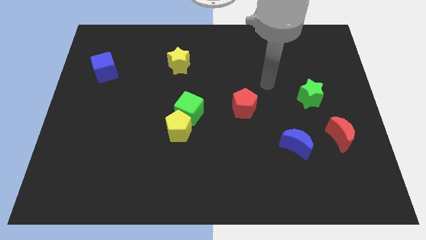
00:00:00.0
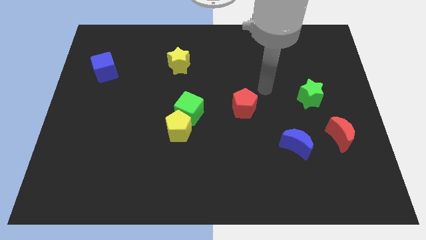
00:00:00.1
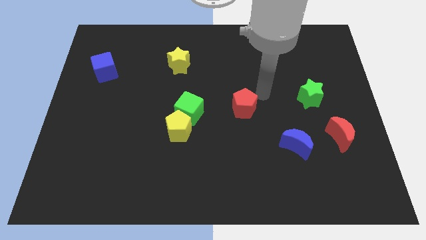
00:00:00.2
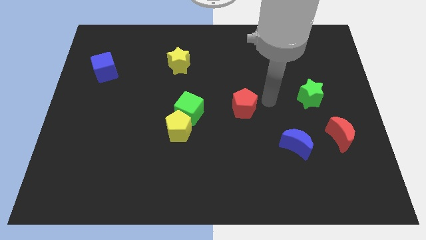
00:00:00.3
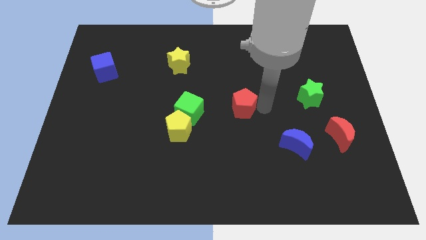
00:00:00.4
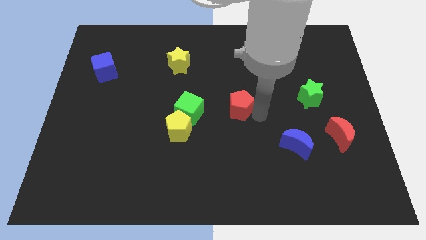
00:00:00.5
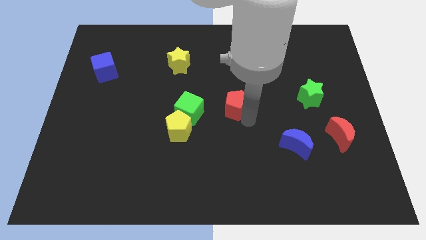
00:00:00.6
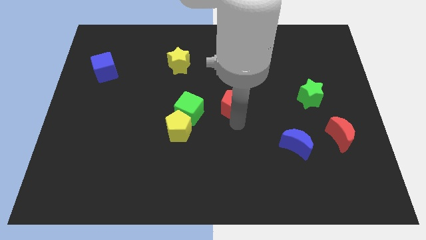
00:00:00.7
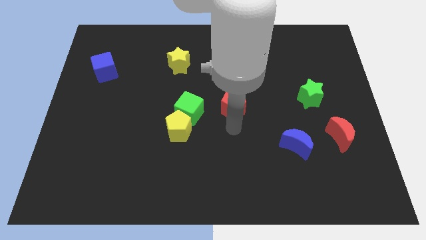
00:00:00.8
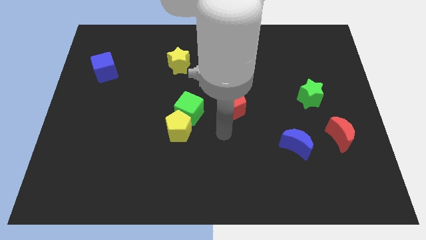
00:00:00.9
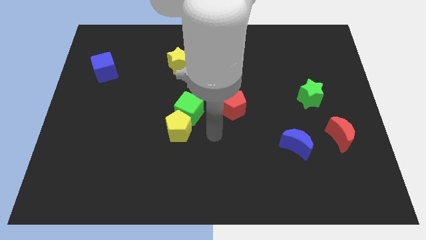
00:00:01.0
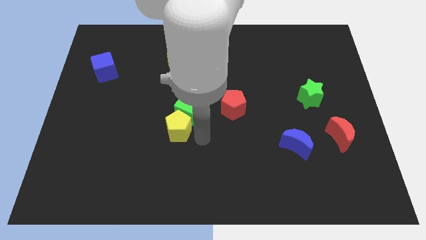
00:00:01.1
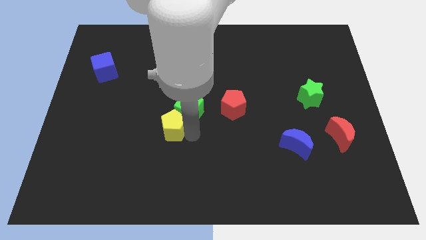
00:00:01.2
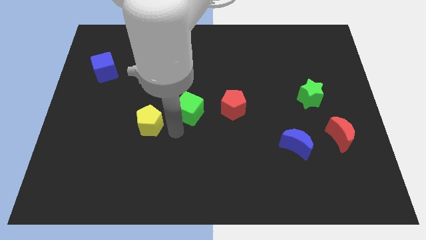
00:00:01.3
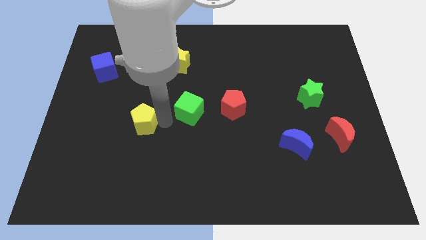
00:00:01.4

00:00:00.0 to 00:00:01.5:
move the green cube away from the yellow pentagon

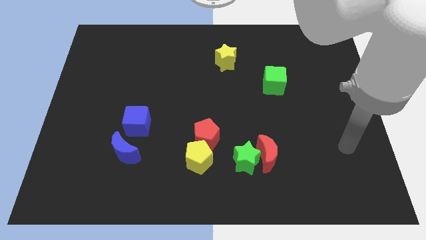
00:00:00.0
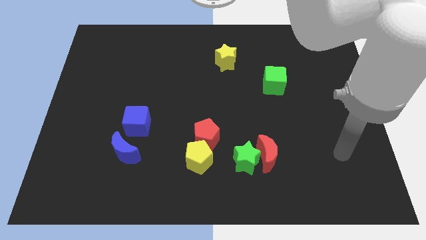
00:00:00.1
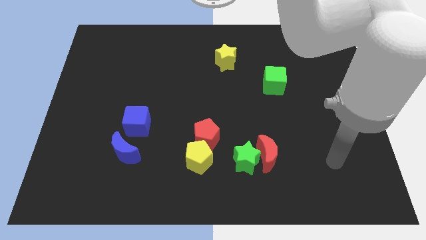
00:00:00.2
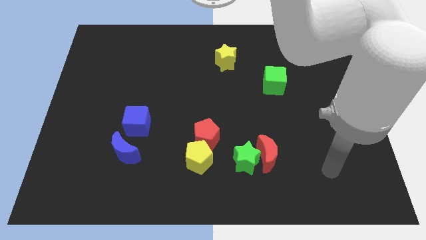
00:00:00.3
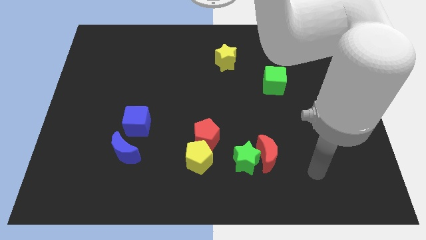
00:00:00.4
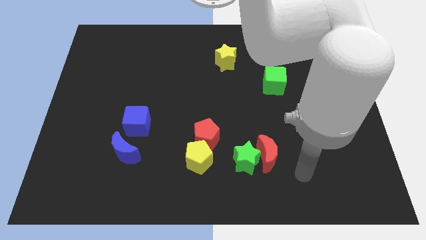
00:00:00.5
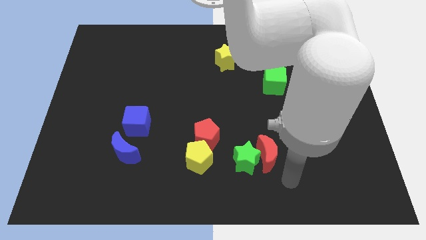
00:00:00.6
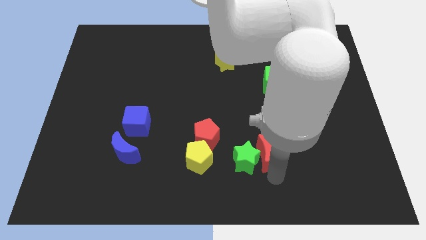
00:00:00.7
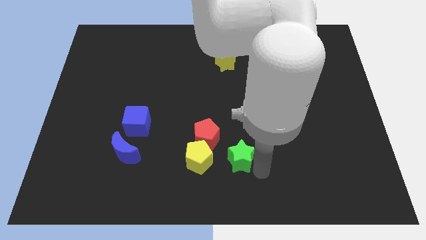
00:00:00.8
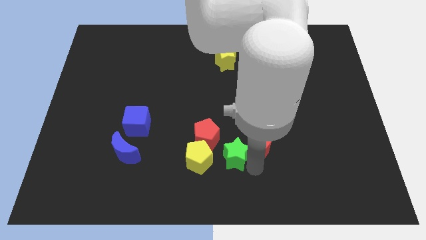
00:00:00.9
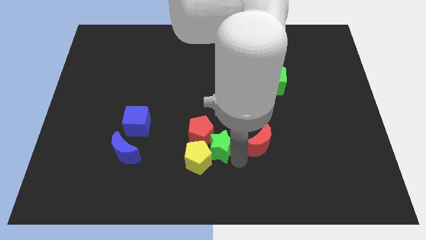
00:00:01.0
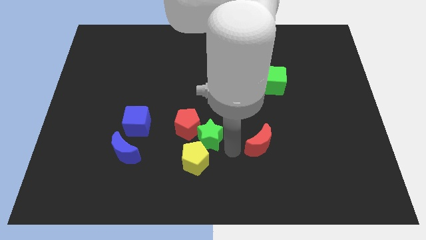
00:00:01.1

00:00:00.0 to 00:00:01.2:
move the red moon away from the green star

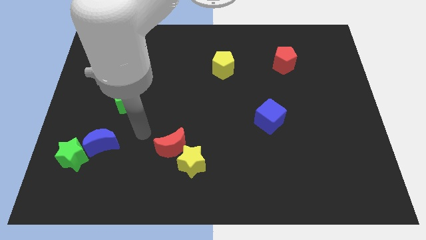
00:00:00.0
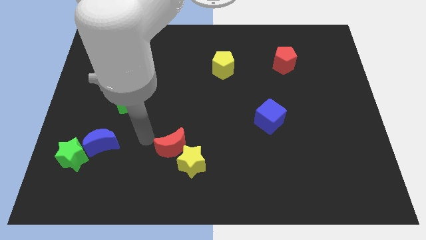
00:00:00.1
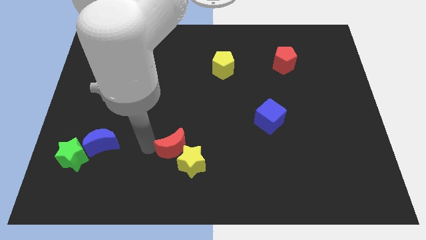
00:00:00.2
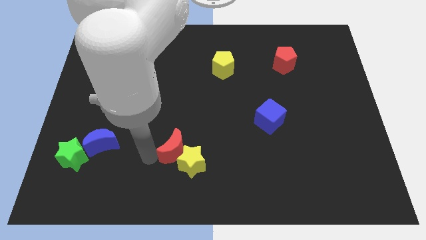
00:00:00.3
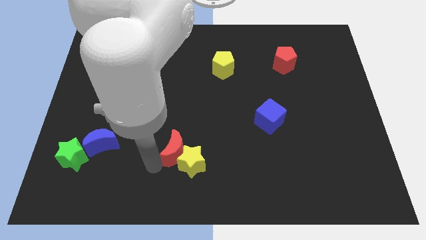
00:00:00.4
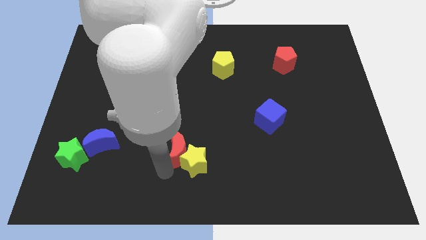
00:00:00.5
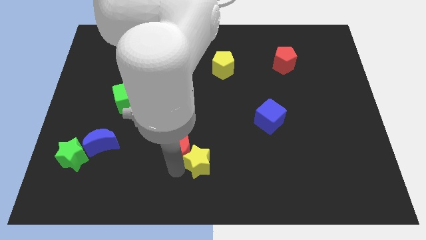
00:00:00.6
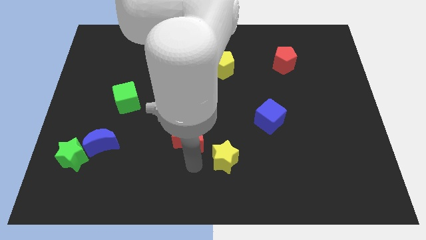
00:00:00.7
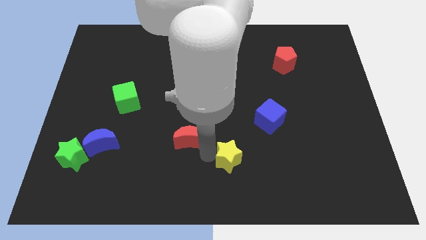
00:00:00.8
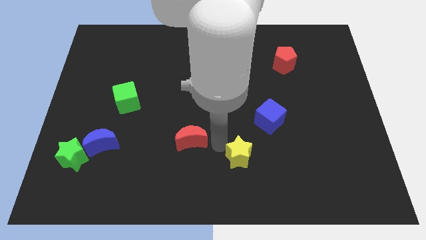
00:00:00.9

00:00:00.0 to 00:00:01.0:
pull the red moon apart from the yellow star

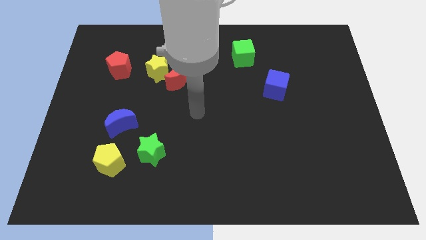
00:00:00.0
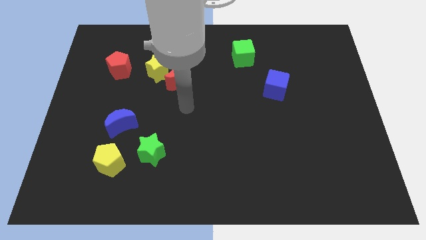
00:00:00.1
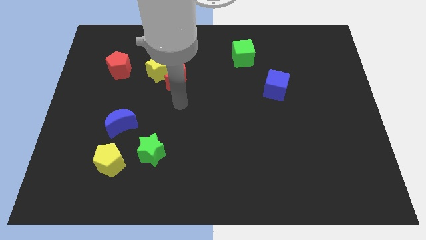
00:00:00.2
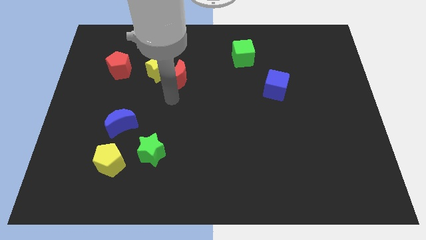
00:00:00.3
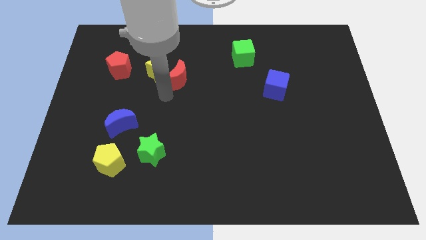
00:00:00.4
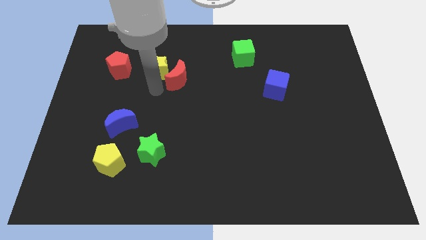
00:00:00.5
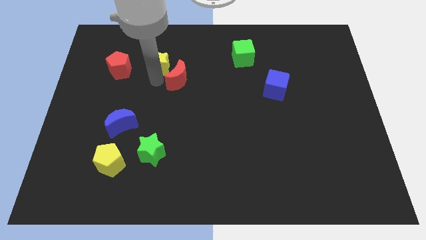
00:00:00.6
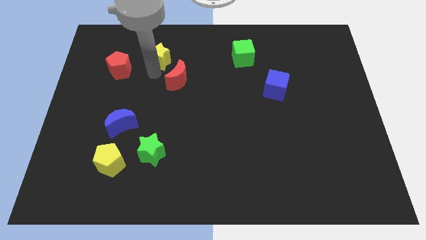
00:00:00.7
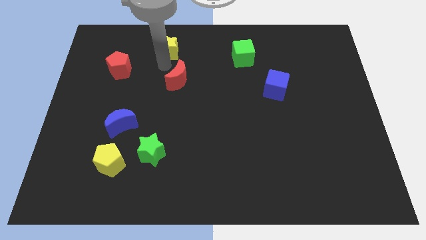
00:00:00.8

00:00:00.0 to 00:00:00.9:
move the red moon away from the yellow star

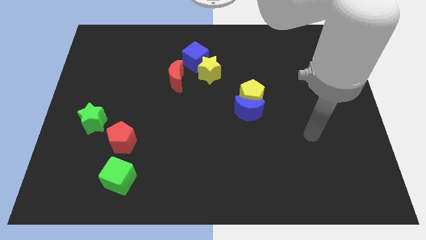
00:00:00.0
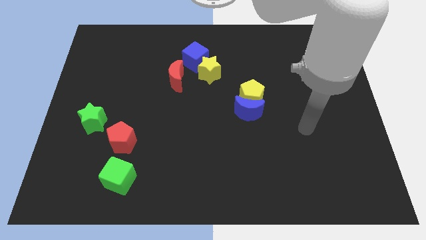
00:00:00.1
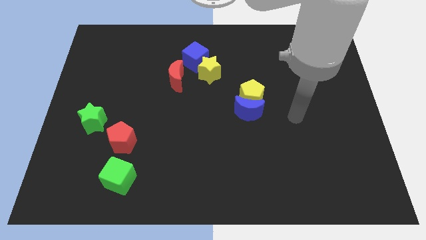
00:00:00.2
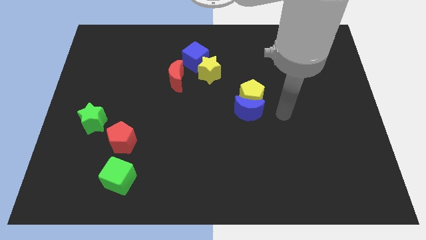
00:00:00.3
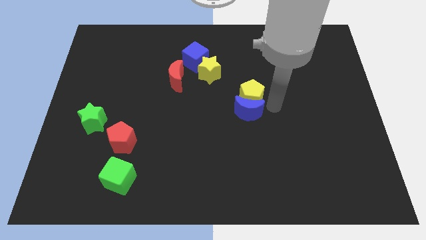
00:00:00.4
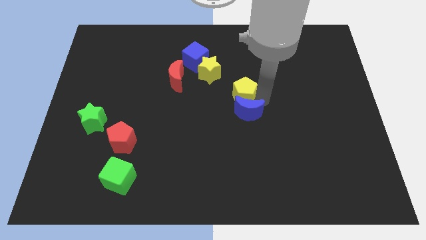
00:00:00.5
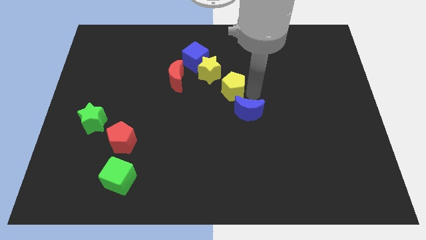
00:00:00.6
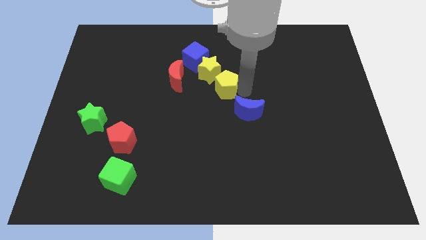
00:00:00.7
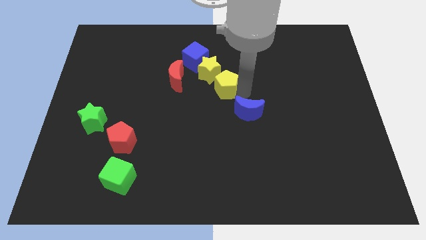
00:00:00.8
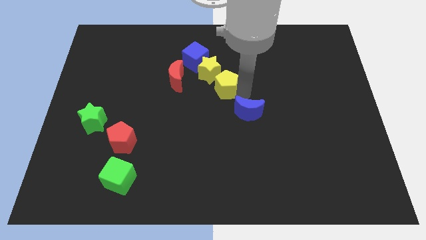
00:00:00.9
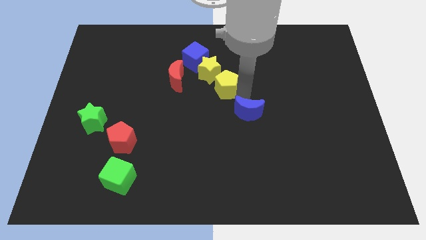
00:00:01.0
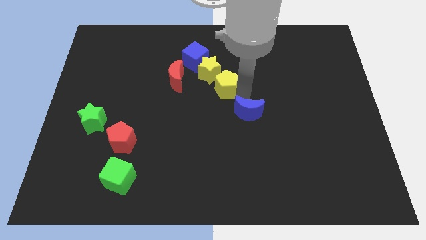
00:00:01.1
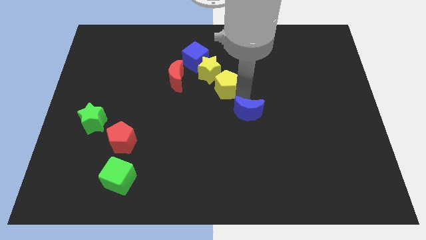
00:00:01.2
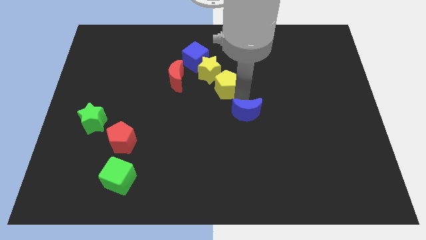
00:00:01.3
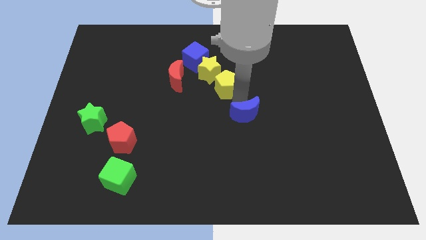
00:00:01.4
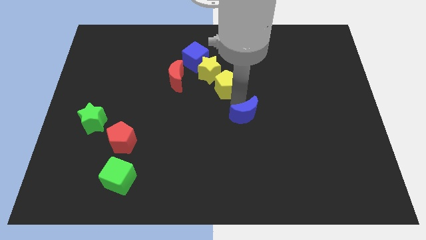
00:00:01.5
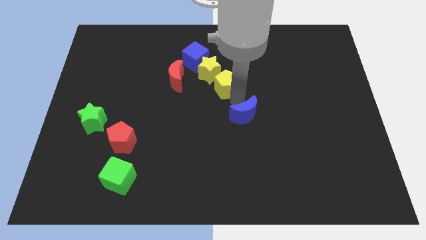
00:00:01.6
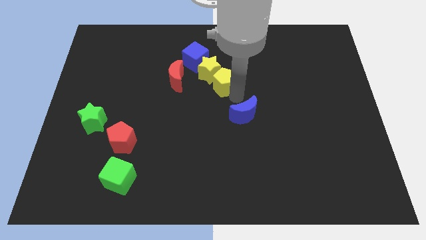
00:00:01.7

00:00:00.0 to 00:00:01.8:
pull the blue moon apart from the yellow pentagon

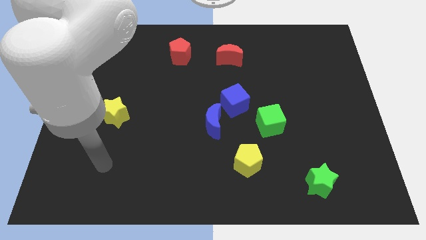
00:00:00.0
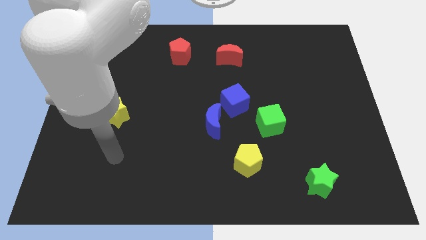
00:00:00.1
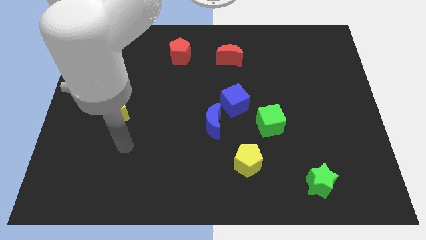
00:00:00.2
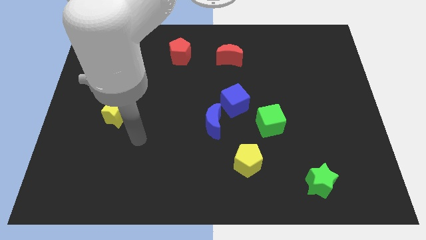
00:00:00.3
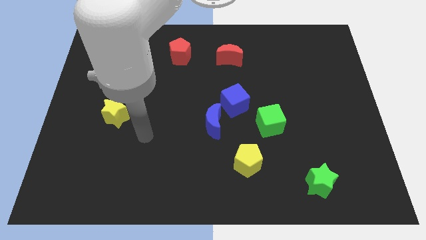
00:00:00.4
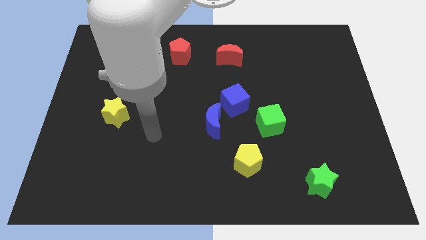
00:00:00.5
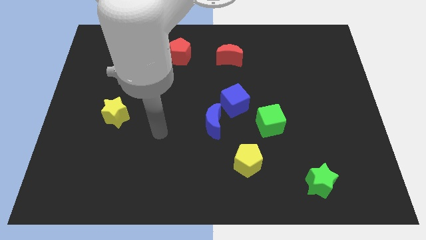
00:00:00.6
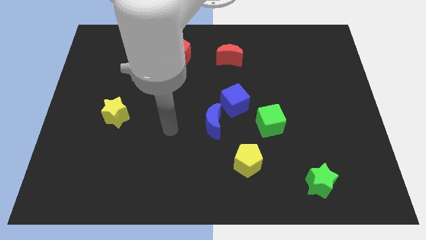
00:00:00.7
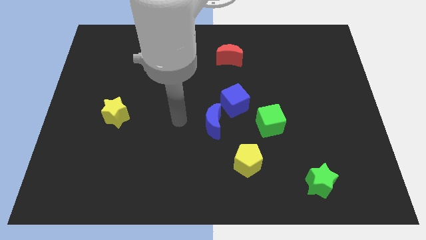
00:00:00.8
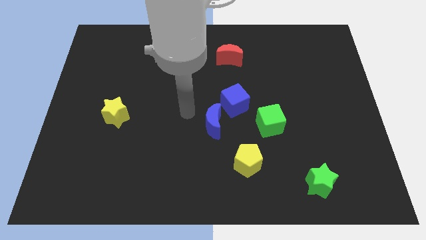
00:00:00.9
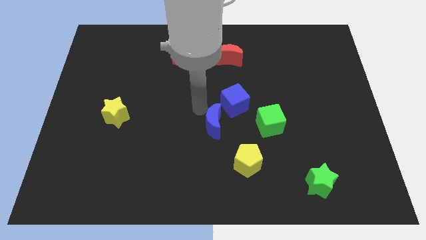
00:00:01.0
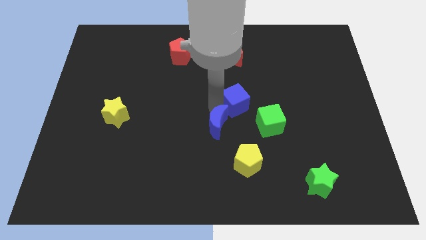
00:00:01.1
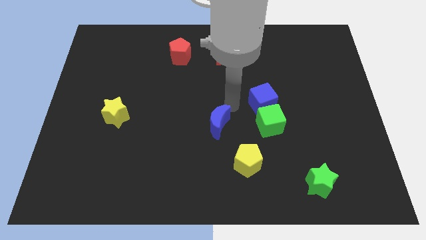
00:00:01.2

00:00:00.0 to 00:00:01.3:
move the blue moon away from the blue cube

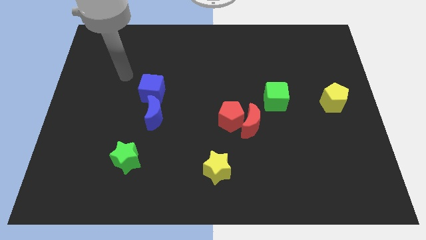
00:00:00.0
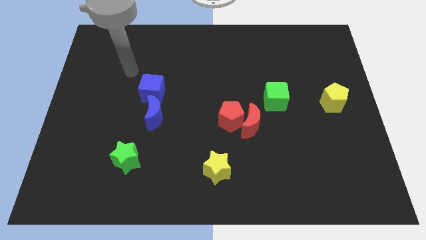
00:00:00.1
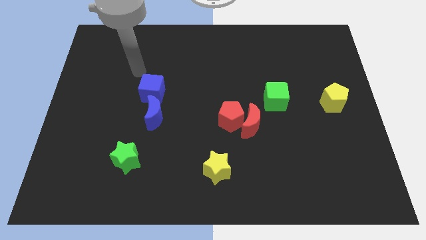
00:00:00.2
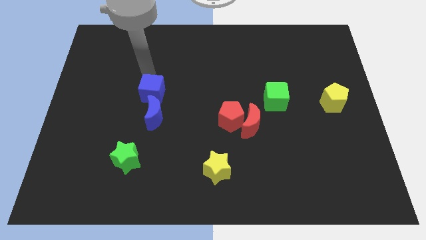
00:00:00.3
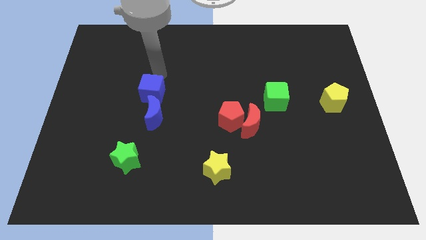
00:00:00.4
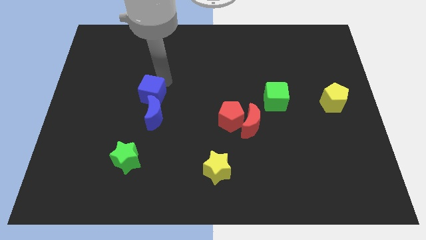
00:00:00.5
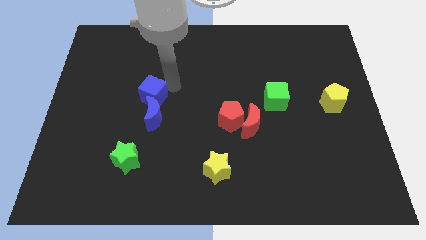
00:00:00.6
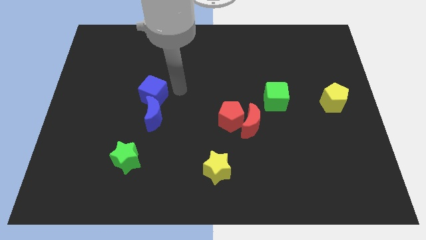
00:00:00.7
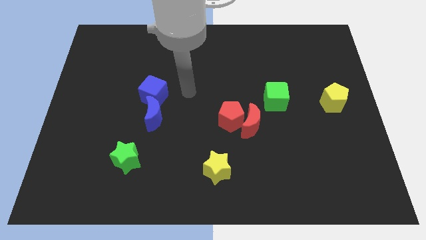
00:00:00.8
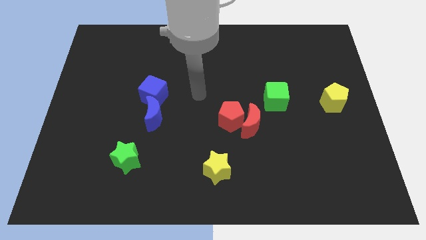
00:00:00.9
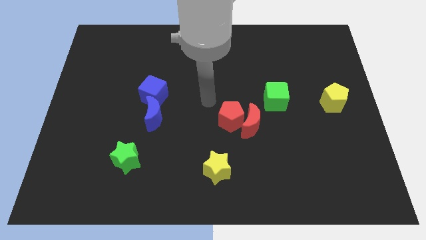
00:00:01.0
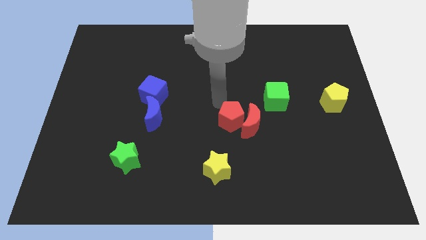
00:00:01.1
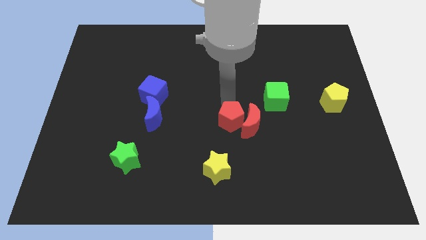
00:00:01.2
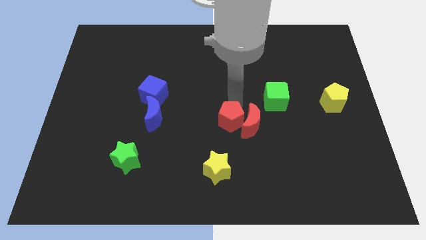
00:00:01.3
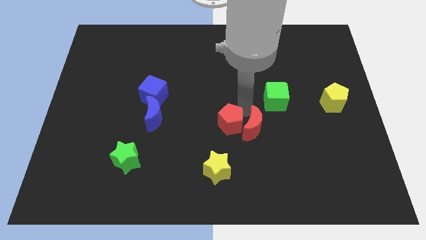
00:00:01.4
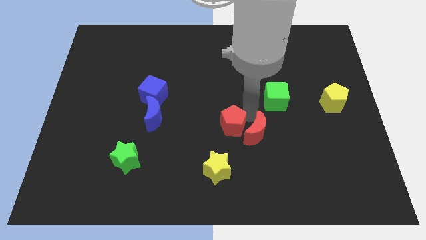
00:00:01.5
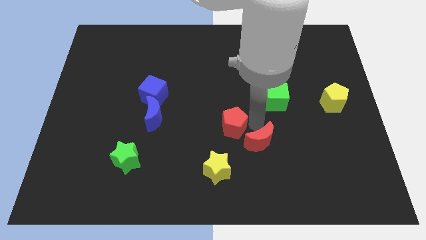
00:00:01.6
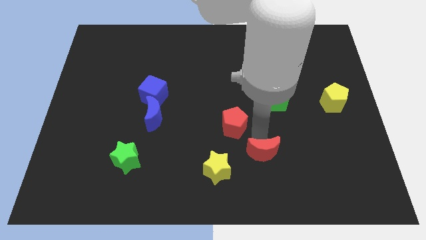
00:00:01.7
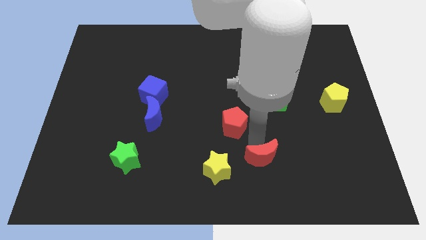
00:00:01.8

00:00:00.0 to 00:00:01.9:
move the red pentagon away from the red moon
